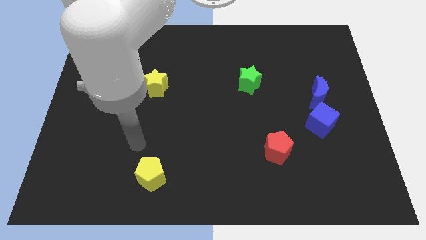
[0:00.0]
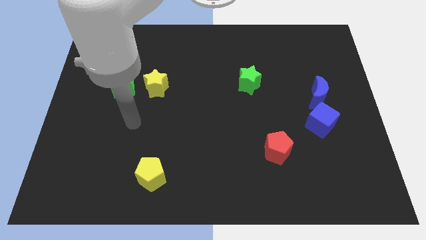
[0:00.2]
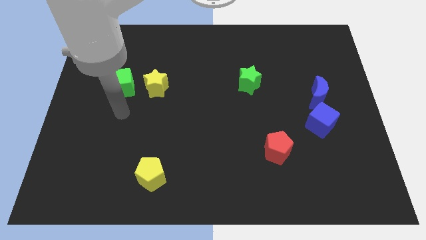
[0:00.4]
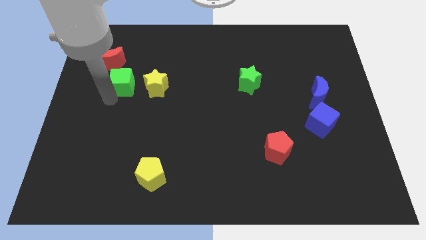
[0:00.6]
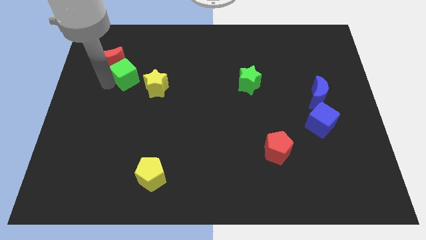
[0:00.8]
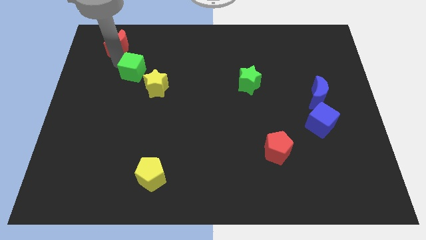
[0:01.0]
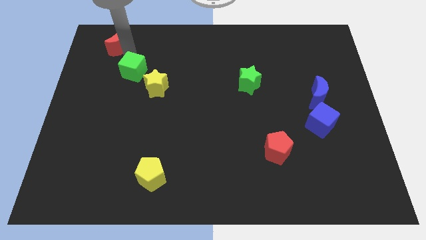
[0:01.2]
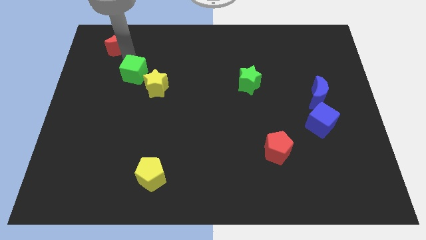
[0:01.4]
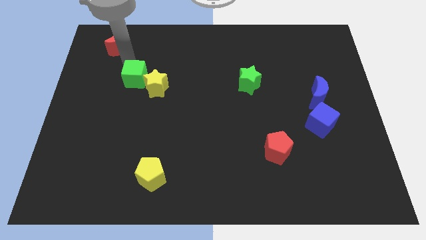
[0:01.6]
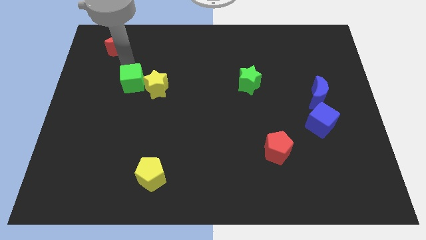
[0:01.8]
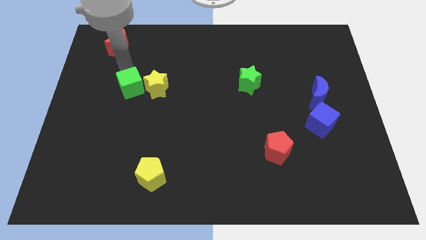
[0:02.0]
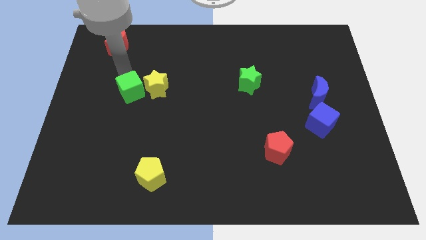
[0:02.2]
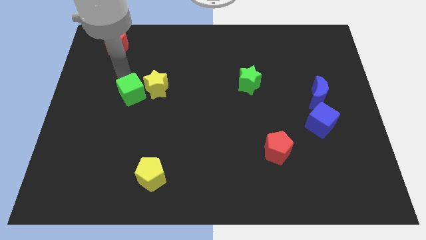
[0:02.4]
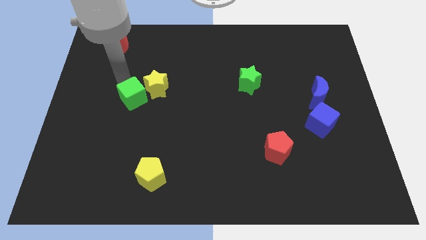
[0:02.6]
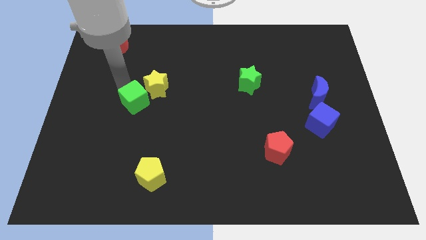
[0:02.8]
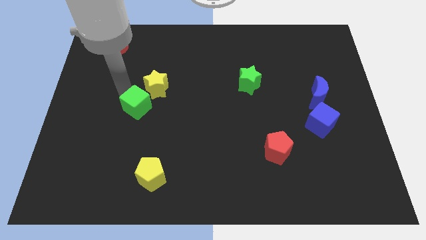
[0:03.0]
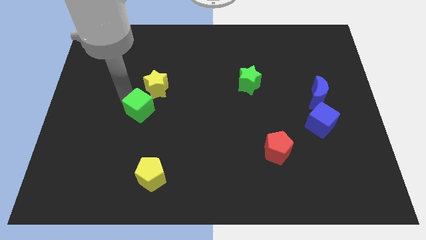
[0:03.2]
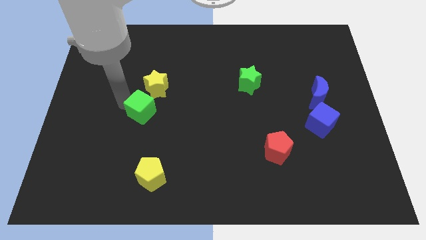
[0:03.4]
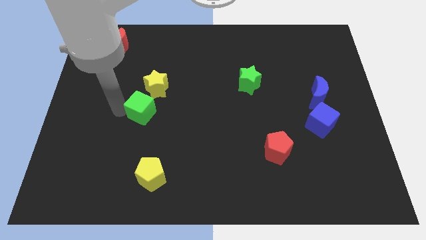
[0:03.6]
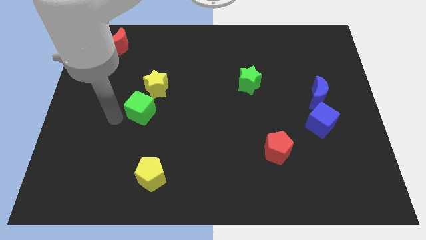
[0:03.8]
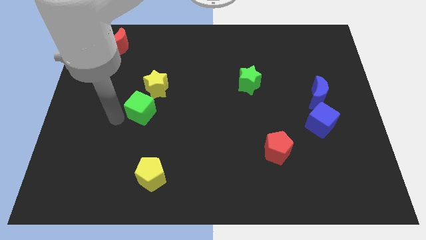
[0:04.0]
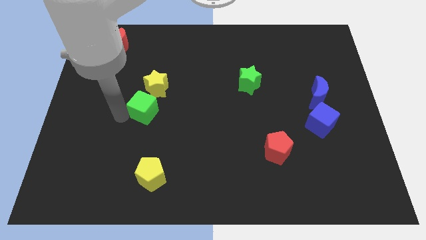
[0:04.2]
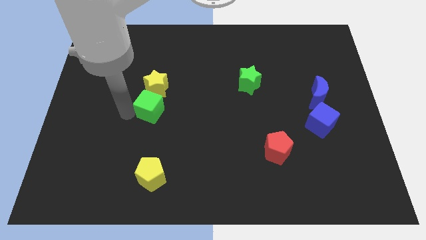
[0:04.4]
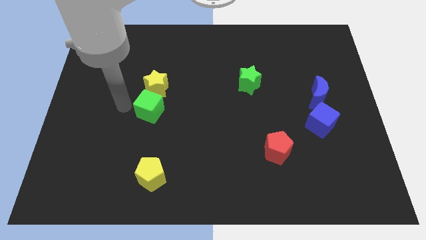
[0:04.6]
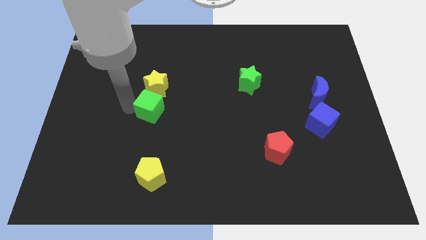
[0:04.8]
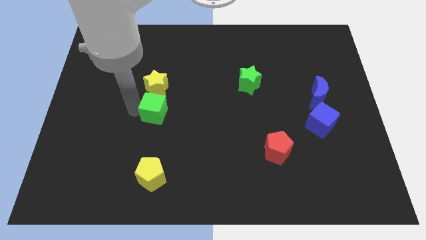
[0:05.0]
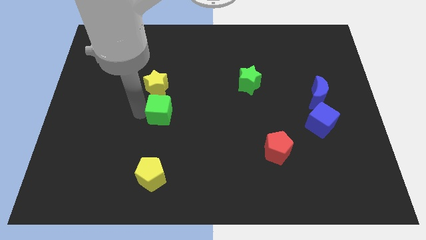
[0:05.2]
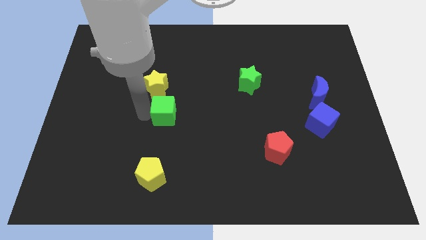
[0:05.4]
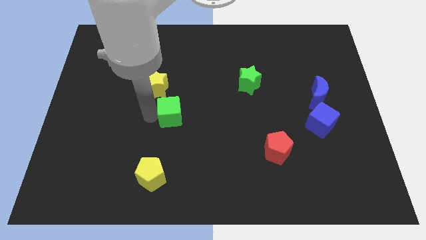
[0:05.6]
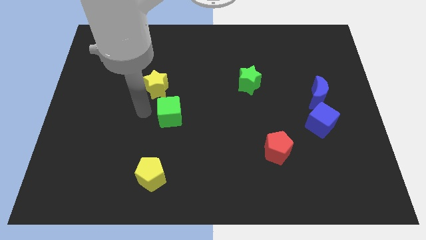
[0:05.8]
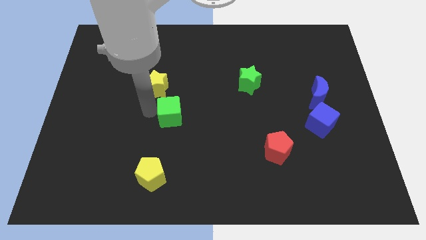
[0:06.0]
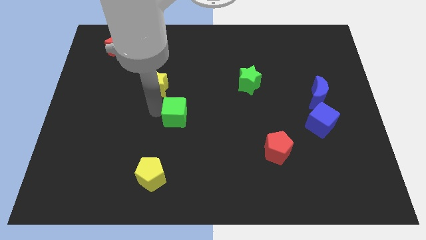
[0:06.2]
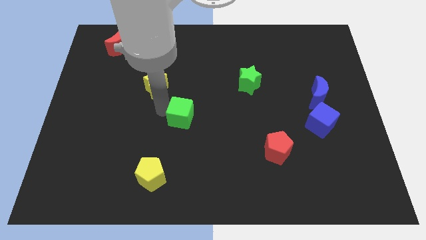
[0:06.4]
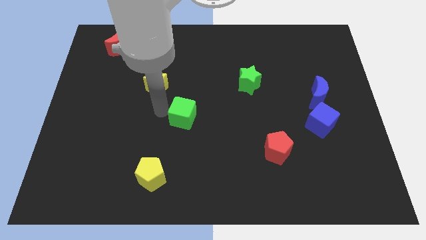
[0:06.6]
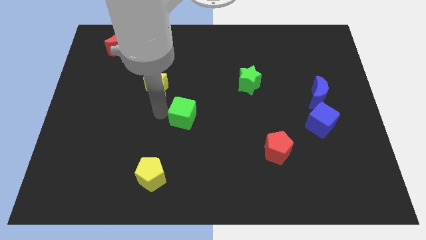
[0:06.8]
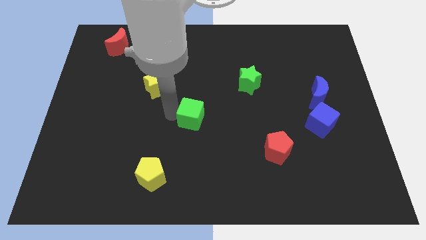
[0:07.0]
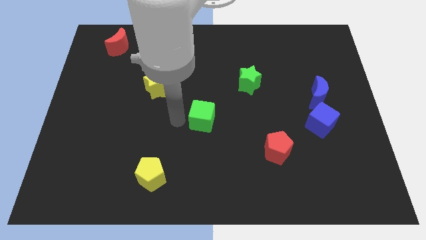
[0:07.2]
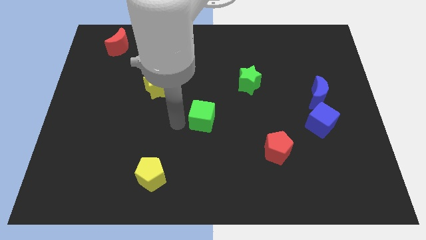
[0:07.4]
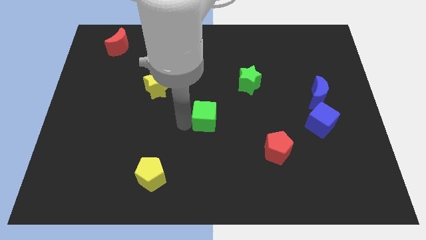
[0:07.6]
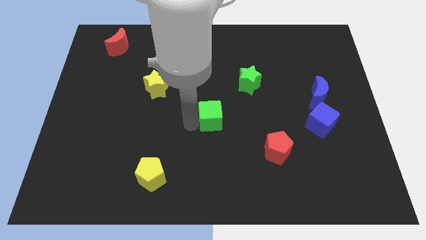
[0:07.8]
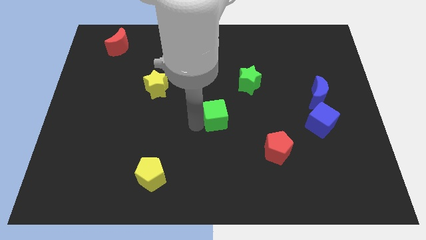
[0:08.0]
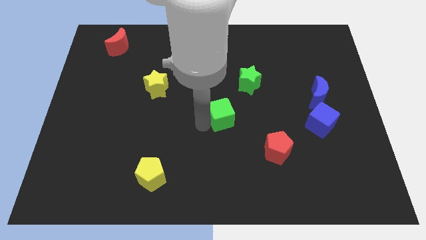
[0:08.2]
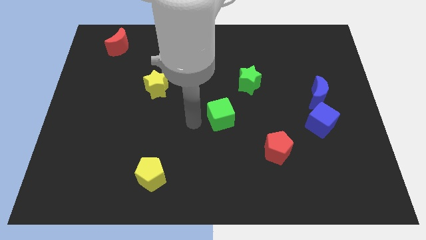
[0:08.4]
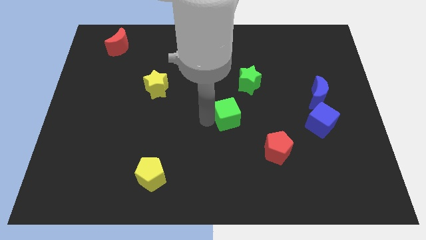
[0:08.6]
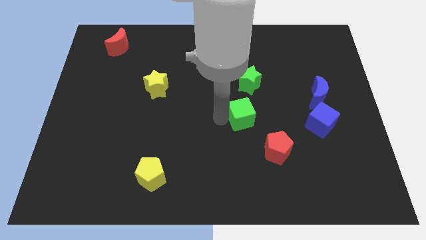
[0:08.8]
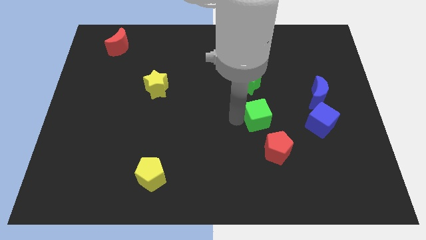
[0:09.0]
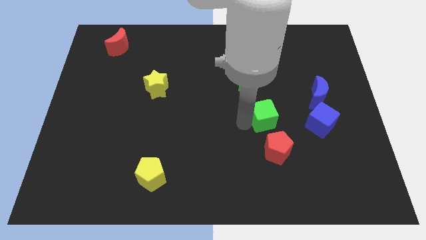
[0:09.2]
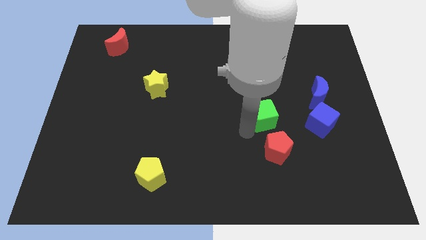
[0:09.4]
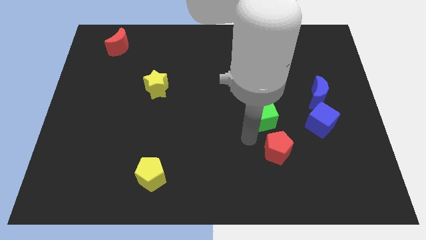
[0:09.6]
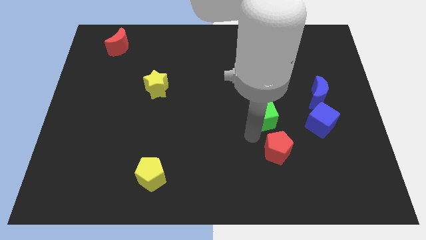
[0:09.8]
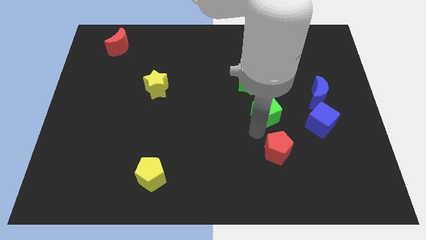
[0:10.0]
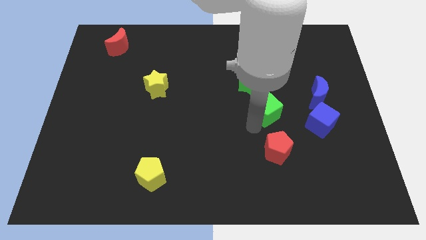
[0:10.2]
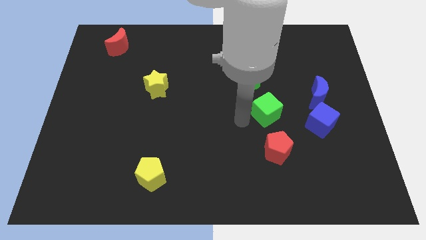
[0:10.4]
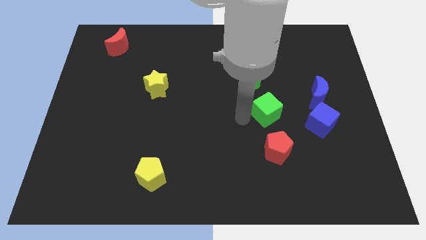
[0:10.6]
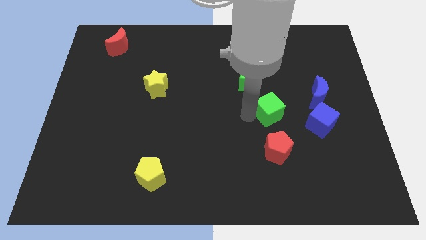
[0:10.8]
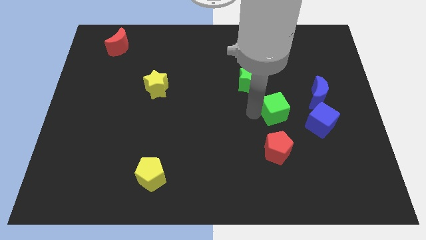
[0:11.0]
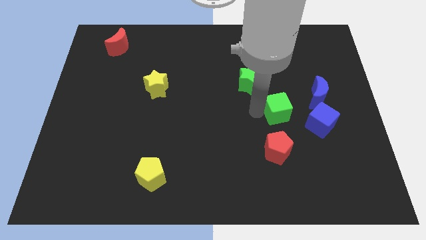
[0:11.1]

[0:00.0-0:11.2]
put the green cube diagonally up and to the left of the blue cube
